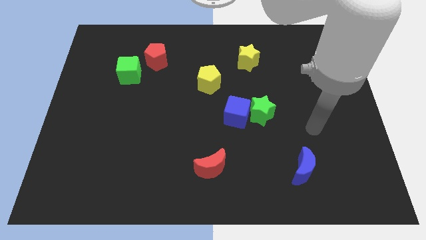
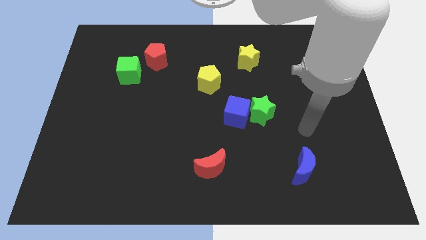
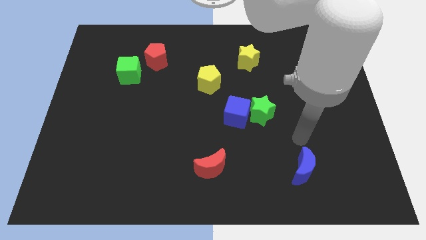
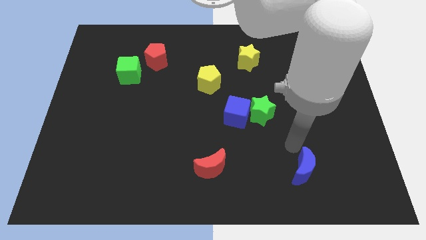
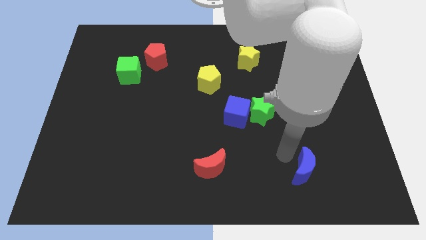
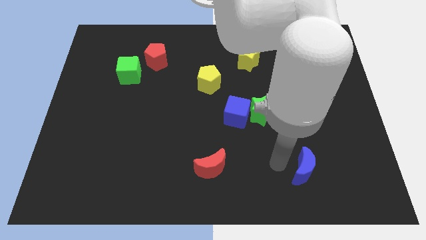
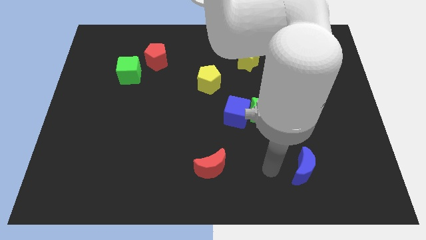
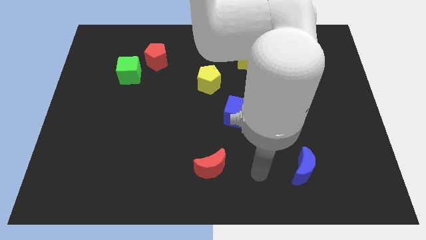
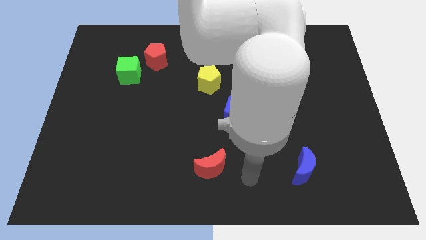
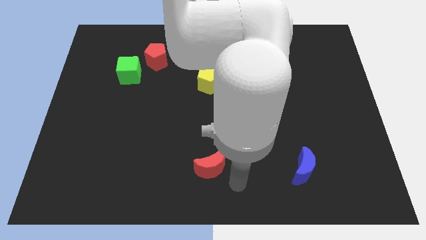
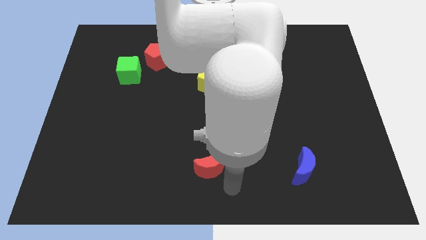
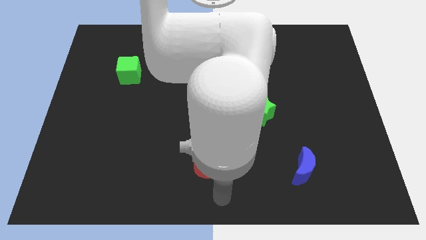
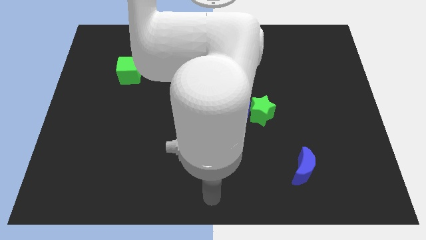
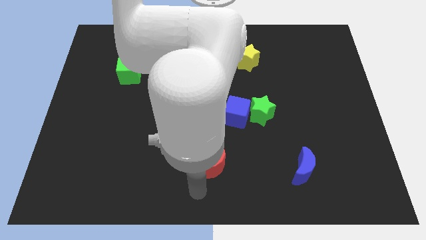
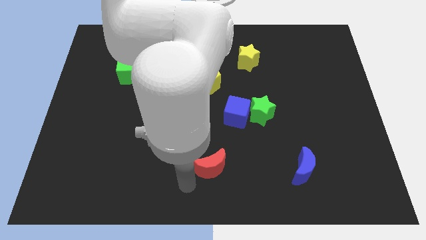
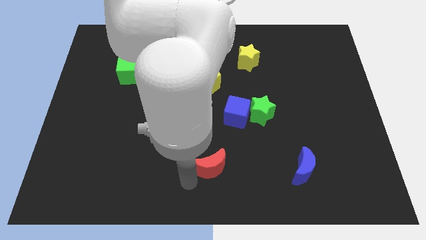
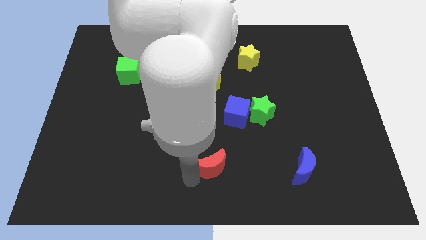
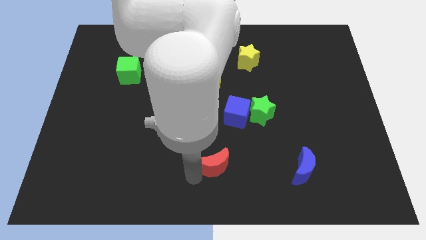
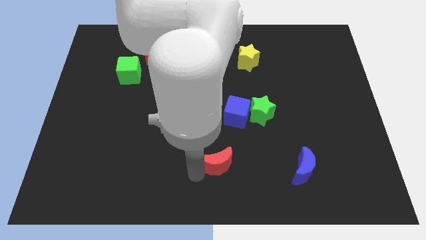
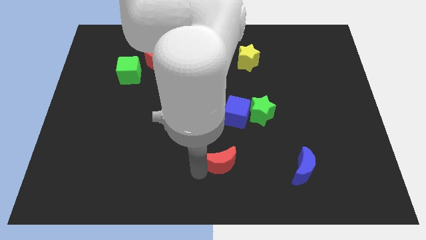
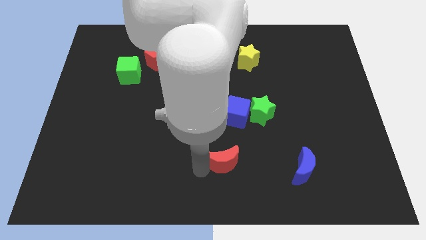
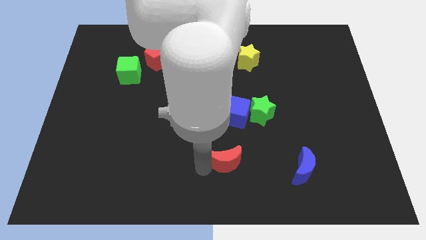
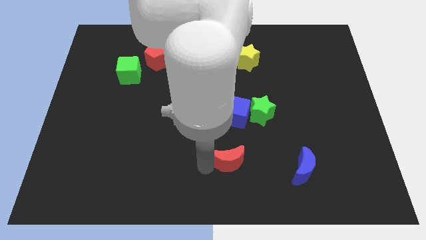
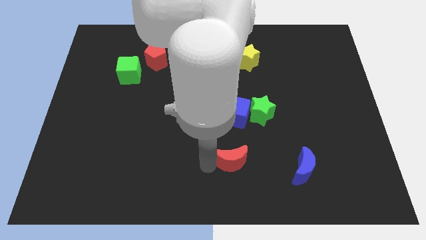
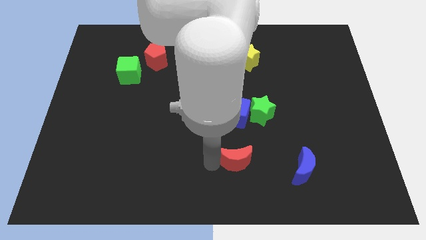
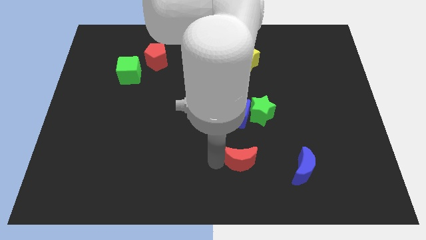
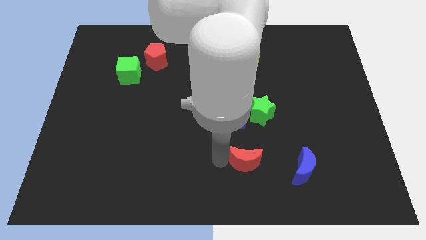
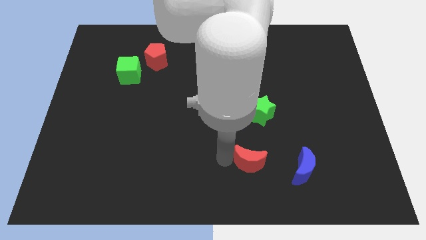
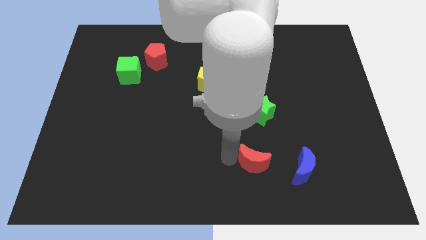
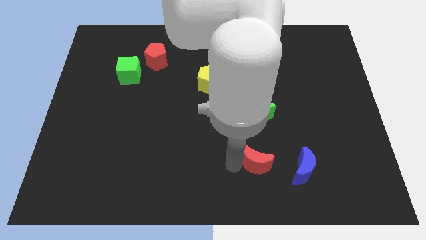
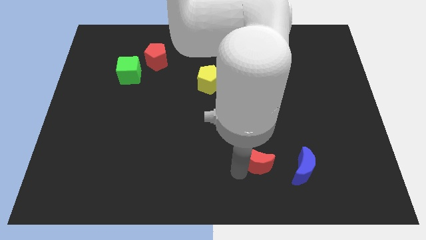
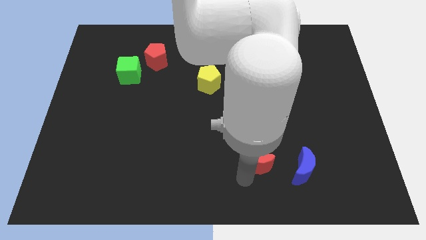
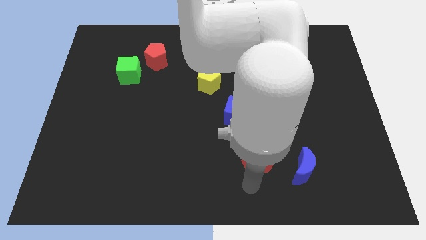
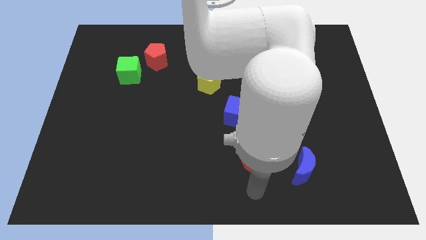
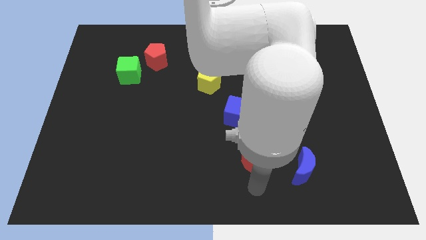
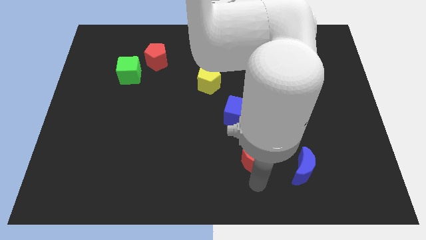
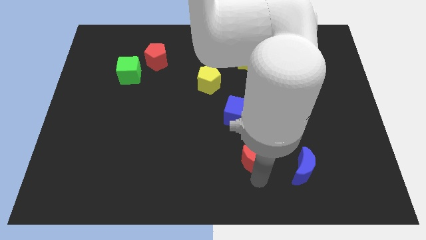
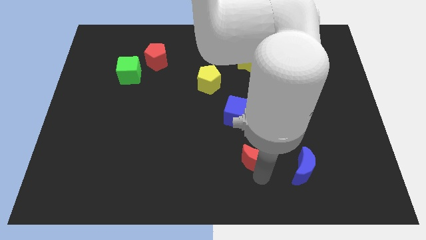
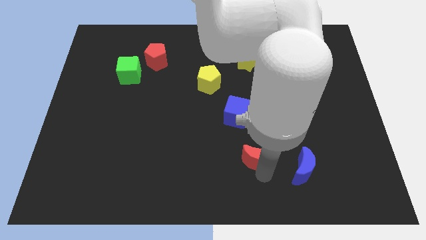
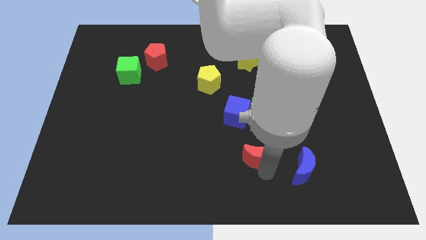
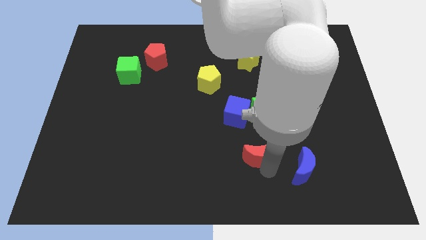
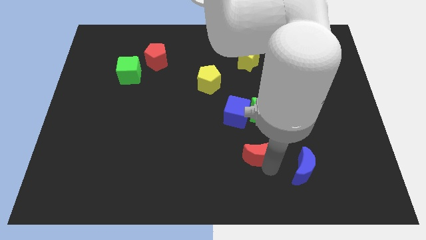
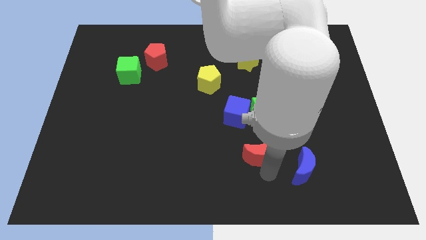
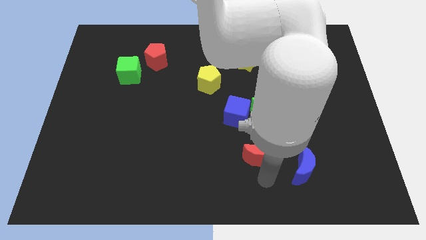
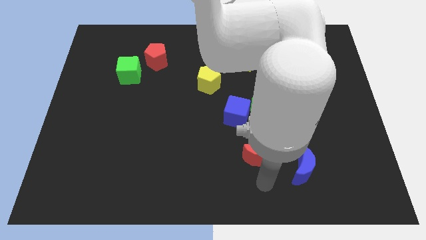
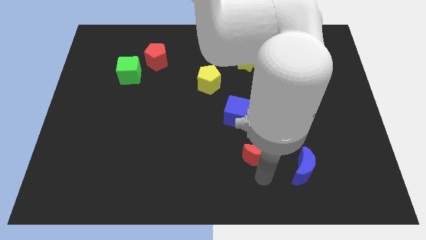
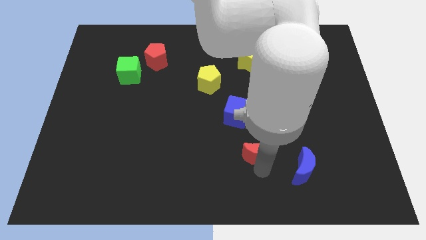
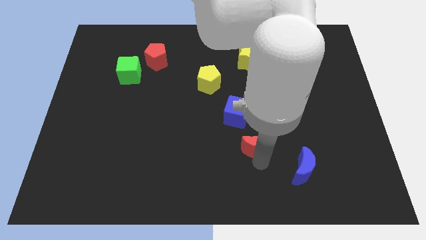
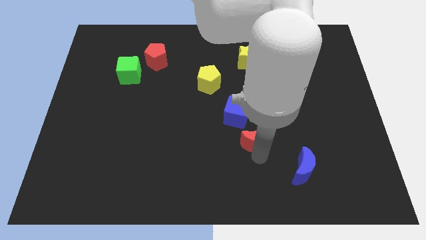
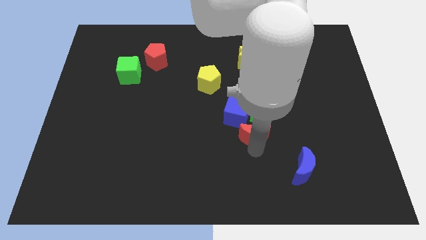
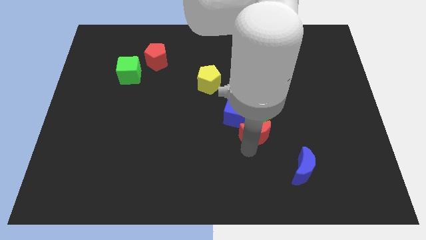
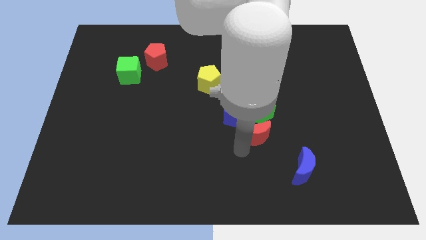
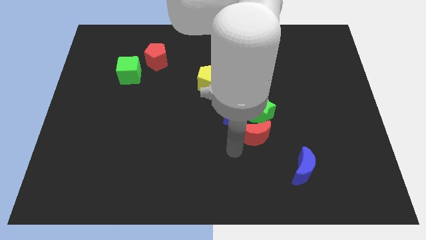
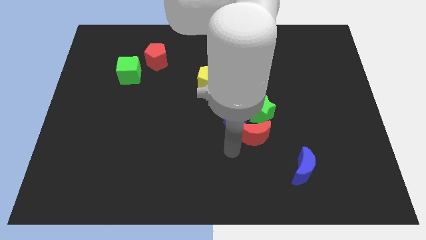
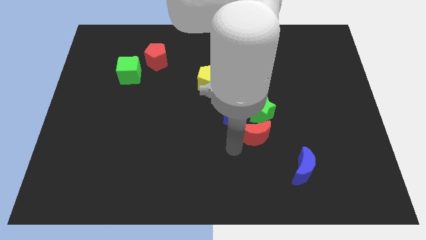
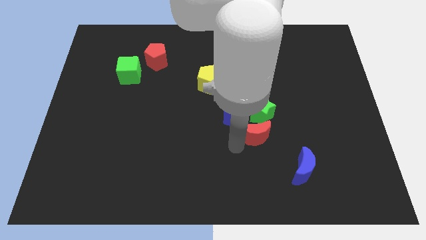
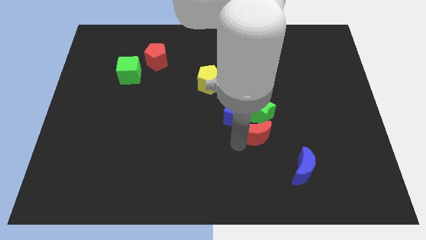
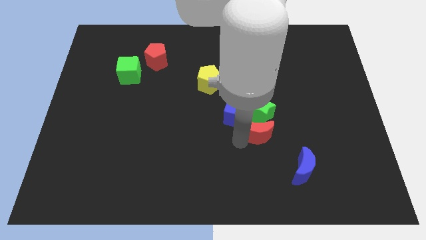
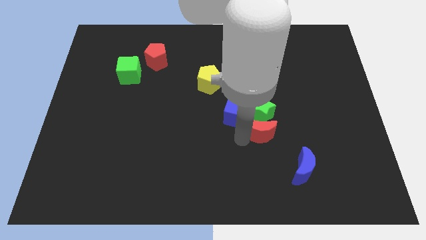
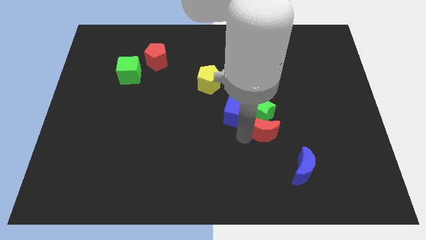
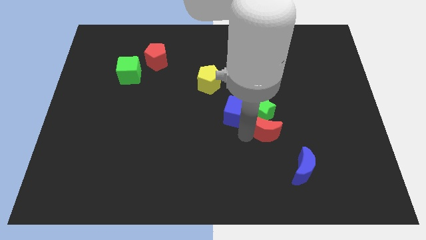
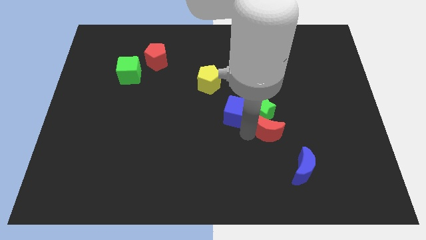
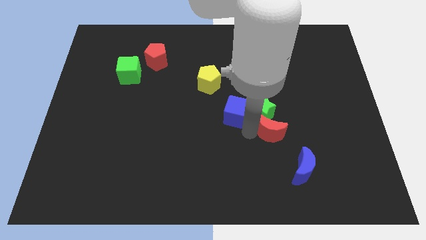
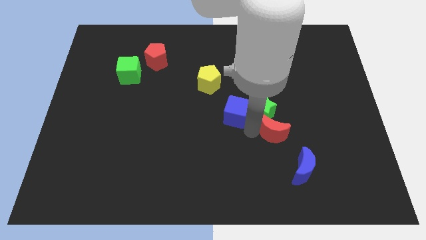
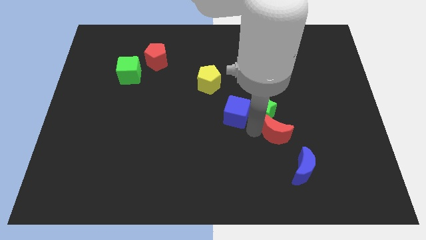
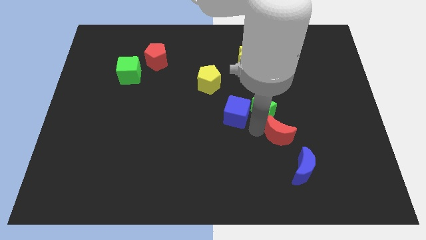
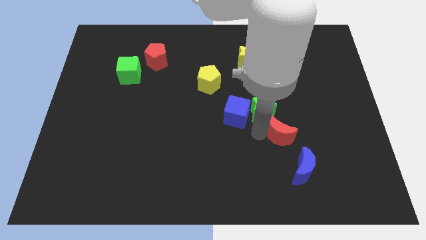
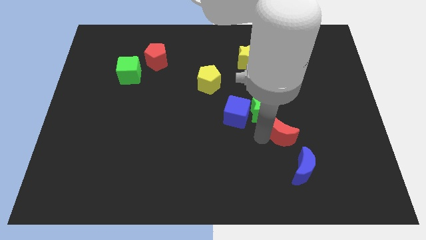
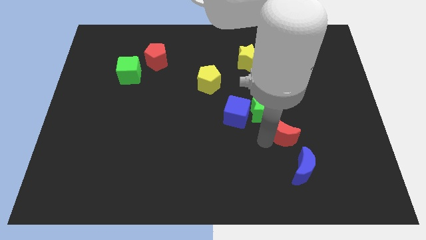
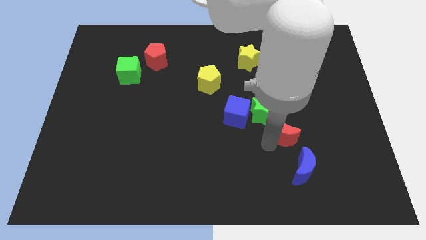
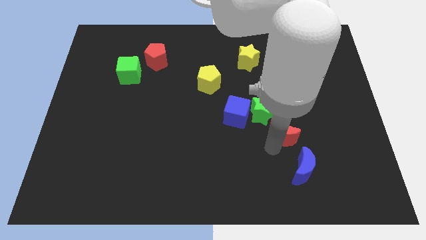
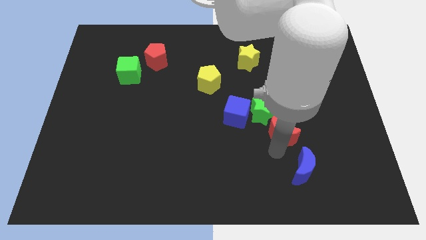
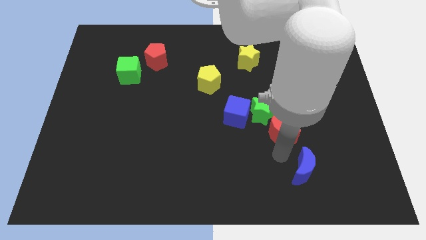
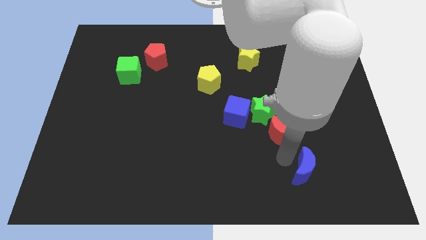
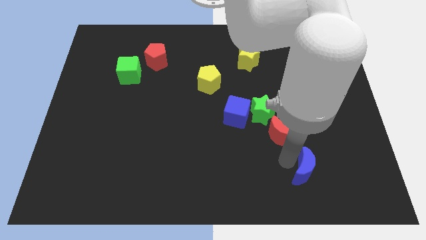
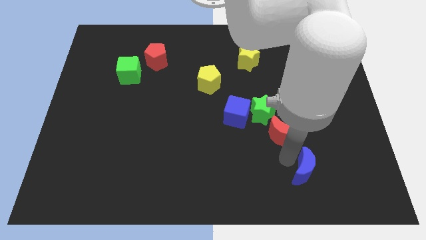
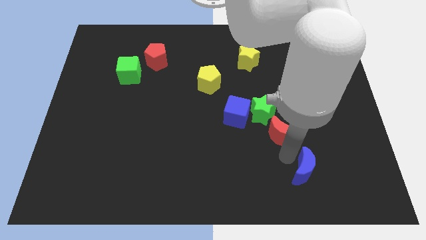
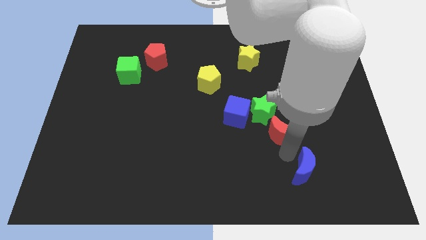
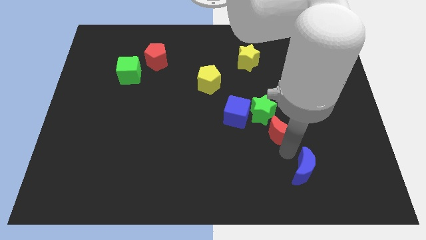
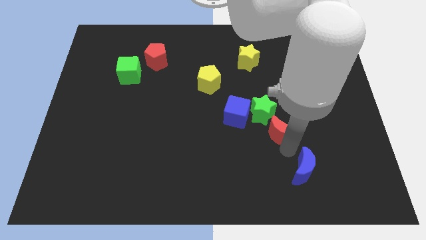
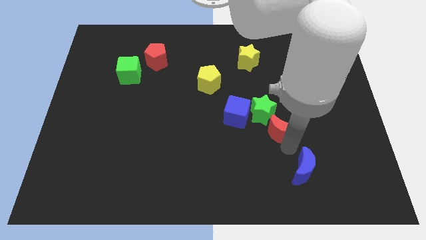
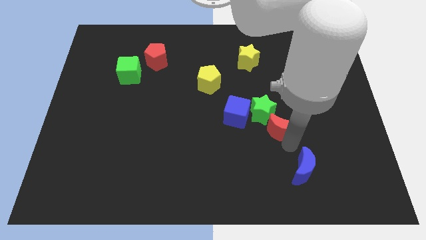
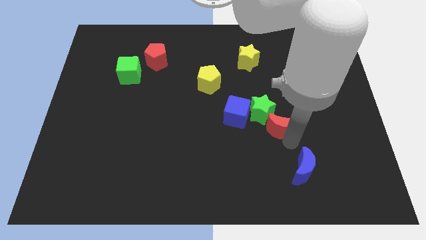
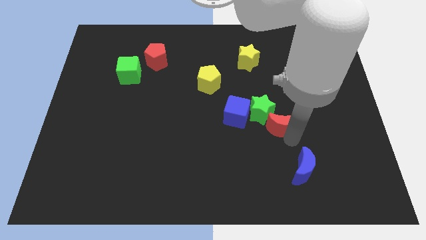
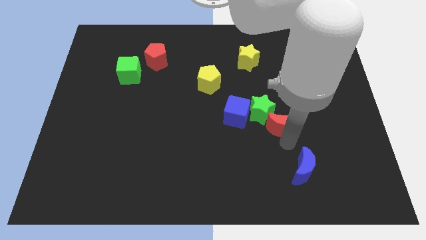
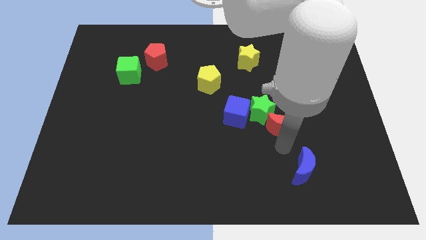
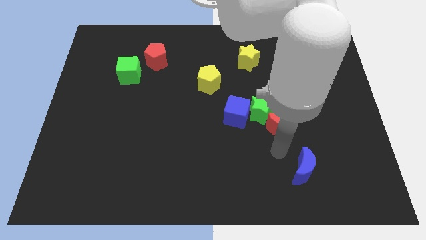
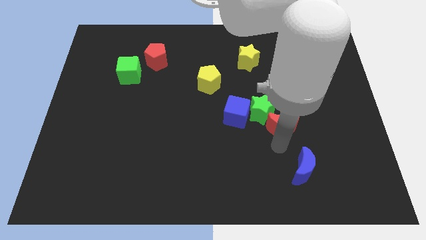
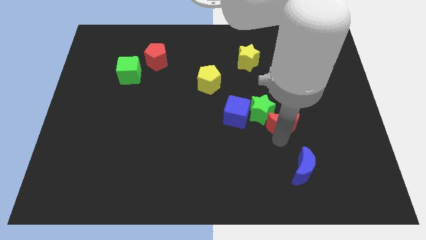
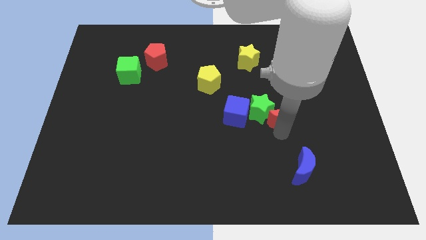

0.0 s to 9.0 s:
push the red moon up and right diagonally
